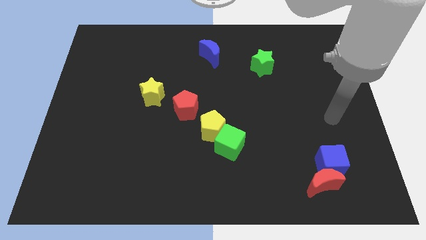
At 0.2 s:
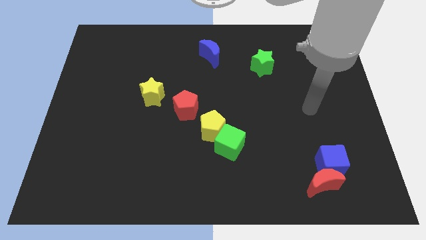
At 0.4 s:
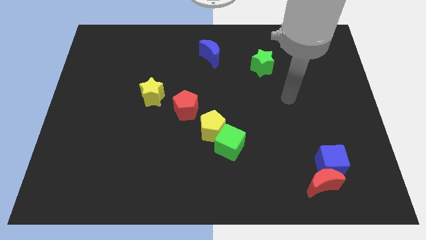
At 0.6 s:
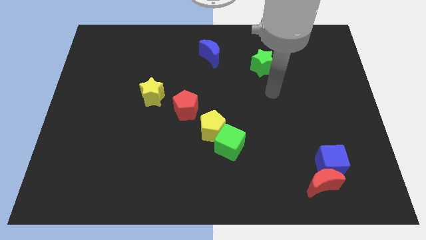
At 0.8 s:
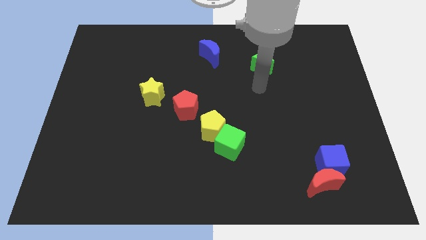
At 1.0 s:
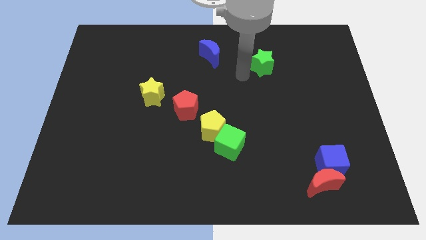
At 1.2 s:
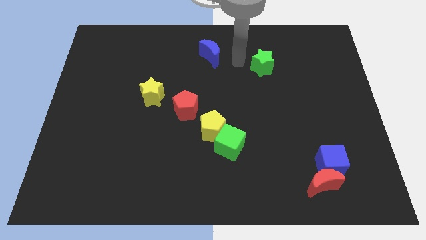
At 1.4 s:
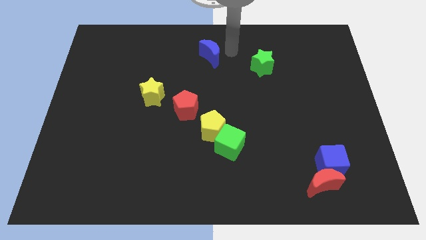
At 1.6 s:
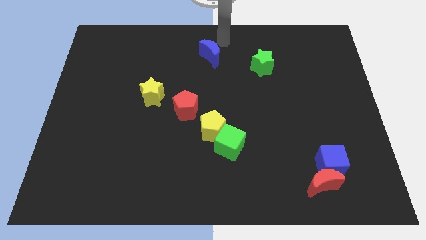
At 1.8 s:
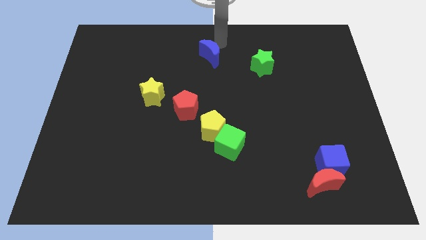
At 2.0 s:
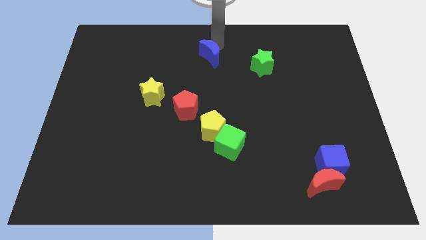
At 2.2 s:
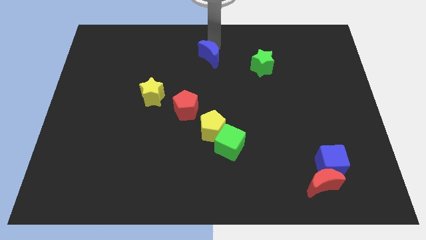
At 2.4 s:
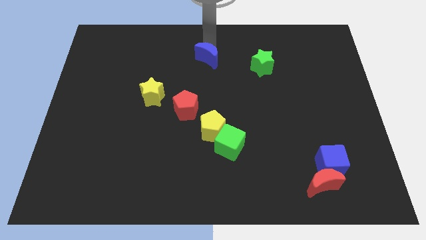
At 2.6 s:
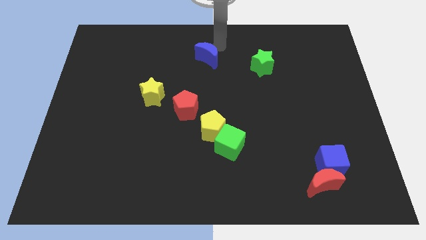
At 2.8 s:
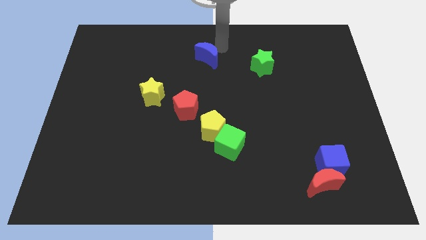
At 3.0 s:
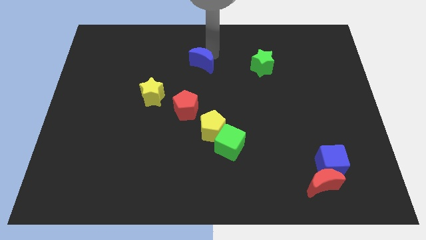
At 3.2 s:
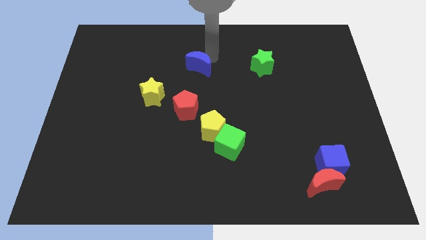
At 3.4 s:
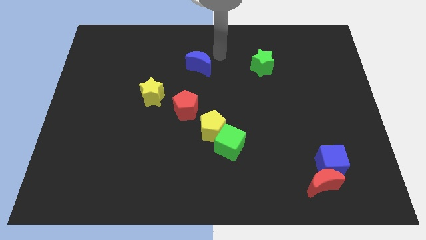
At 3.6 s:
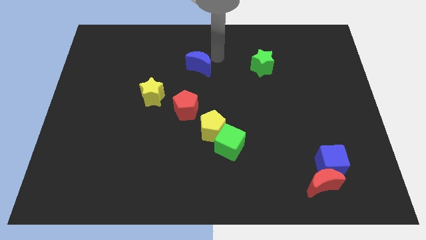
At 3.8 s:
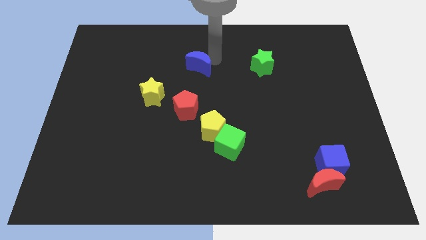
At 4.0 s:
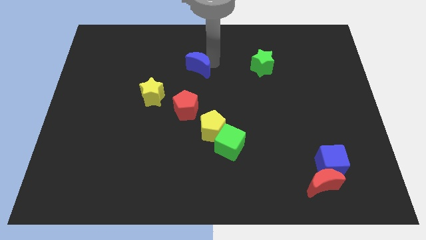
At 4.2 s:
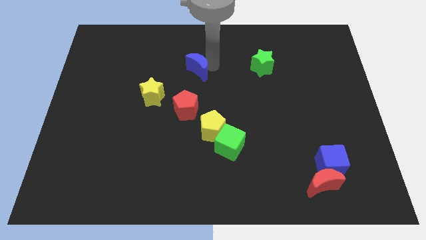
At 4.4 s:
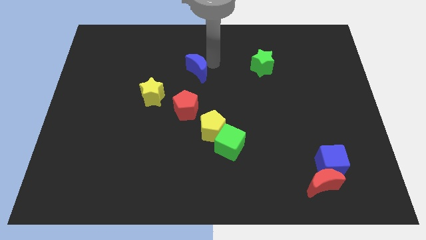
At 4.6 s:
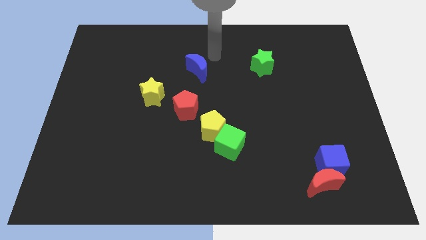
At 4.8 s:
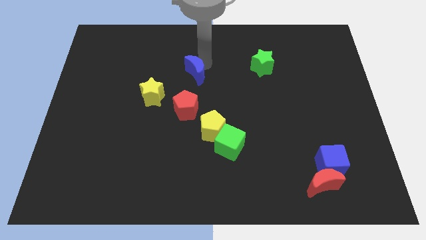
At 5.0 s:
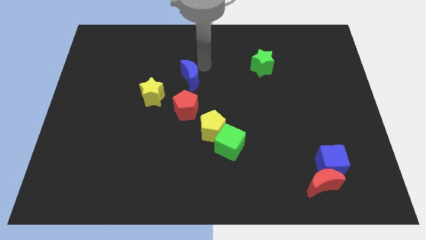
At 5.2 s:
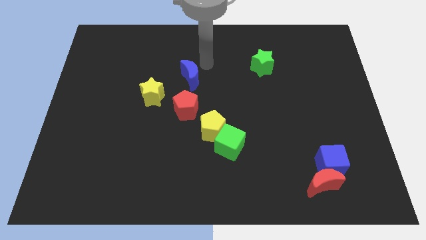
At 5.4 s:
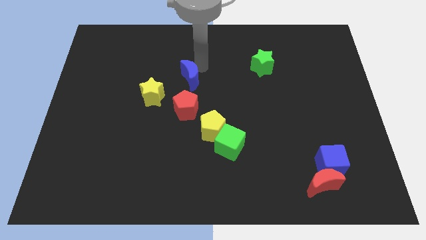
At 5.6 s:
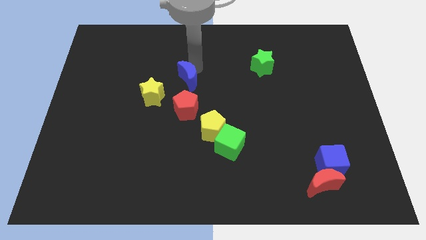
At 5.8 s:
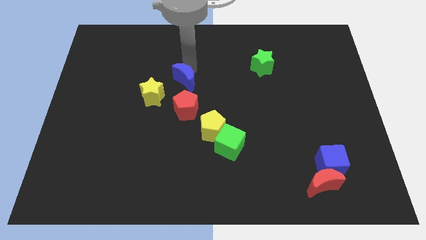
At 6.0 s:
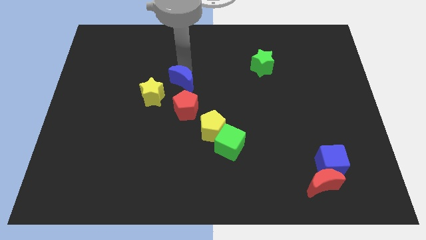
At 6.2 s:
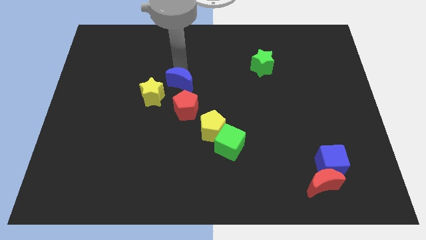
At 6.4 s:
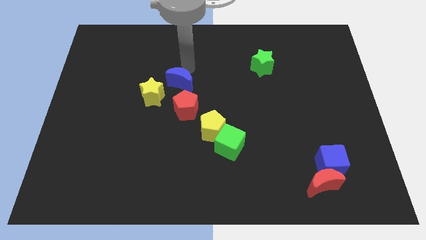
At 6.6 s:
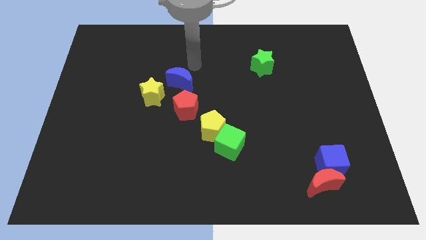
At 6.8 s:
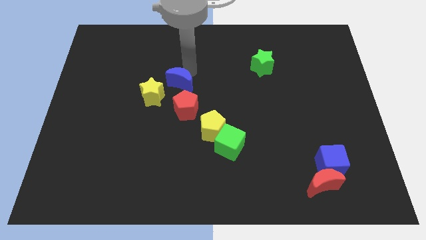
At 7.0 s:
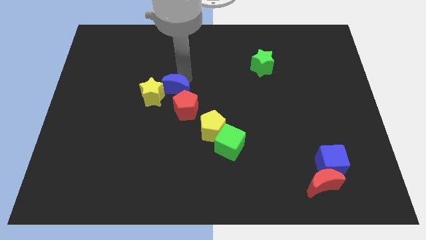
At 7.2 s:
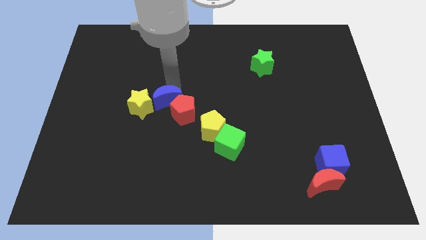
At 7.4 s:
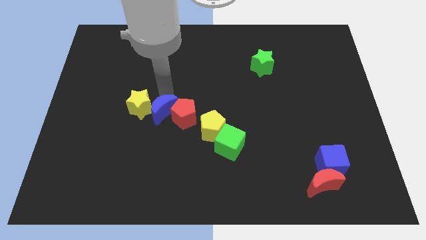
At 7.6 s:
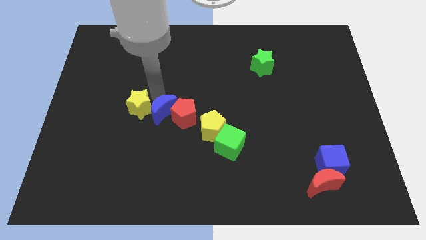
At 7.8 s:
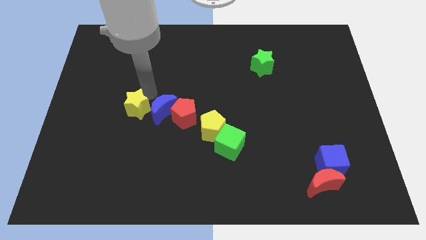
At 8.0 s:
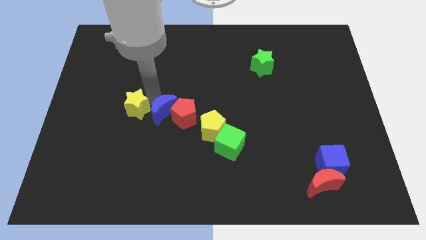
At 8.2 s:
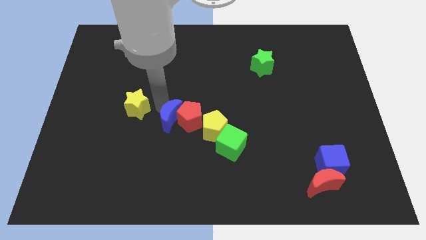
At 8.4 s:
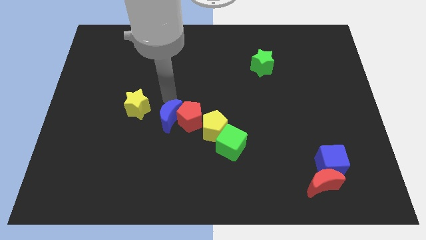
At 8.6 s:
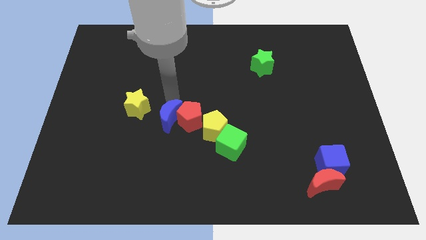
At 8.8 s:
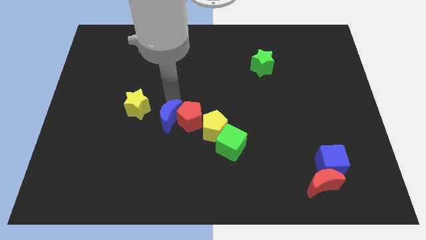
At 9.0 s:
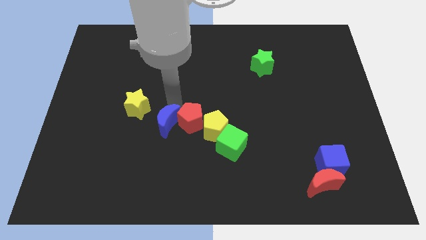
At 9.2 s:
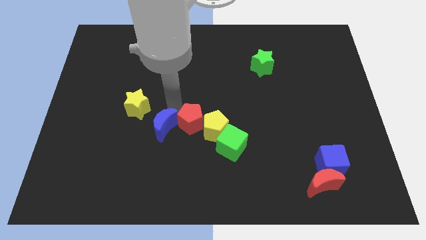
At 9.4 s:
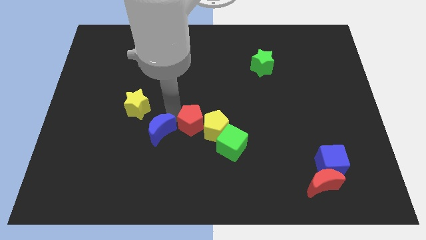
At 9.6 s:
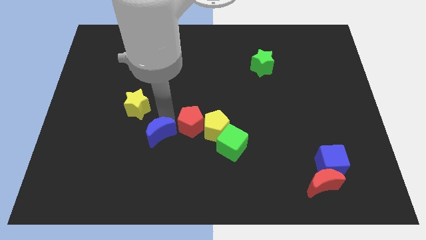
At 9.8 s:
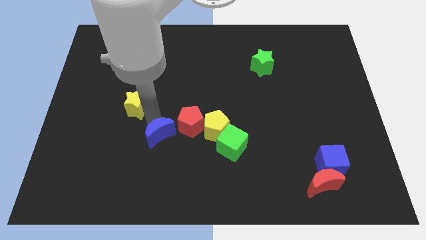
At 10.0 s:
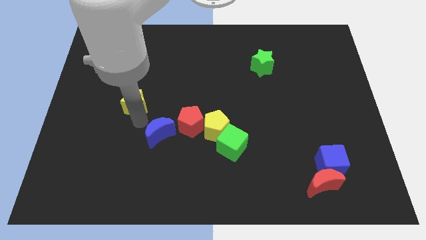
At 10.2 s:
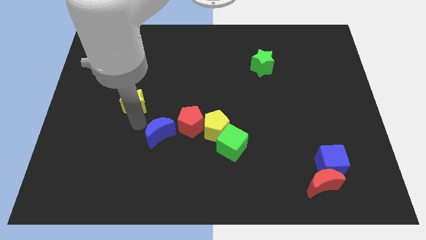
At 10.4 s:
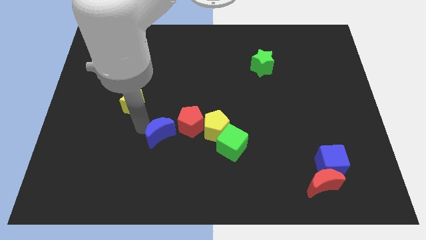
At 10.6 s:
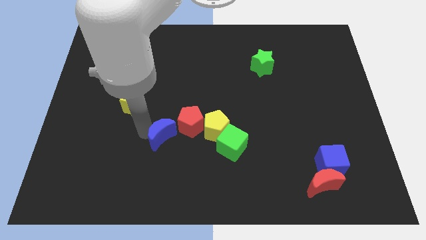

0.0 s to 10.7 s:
slide the blue moon just left of the green cube

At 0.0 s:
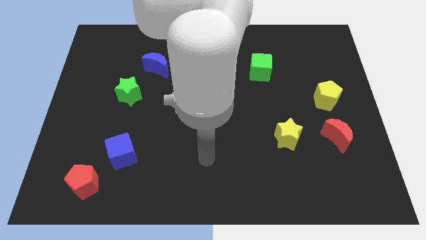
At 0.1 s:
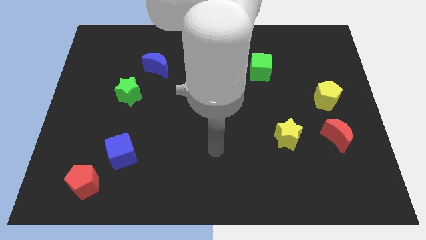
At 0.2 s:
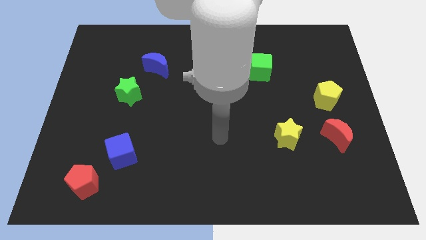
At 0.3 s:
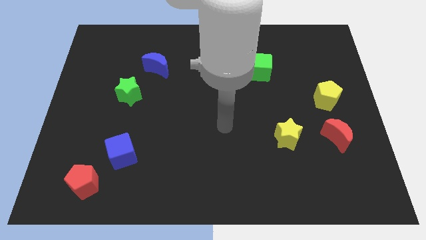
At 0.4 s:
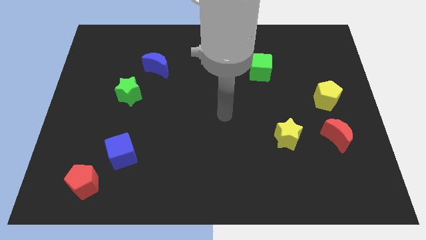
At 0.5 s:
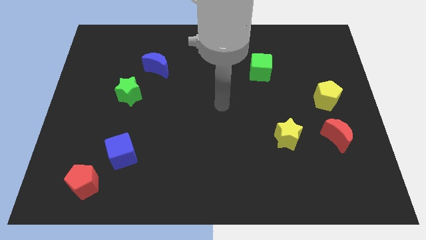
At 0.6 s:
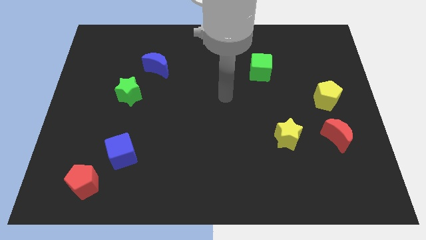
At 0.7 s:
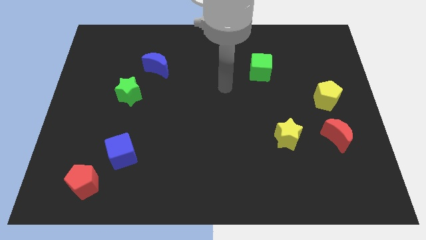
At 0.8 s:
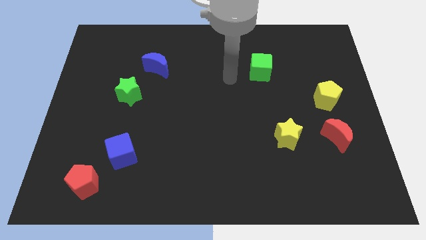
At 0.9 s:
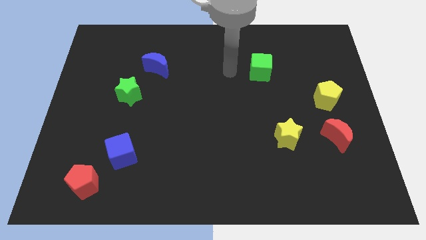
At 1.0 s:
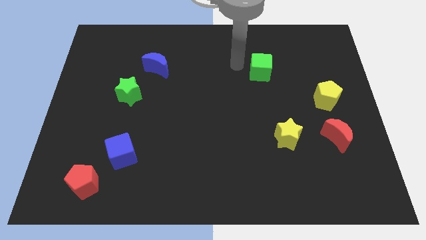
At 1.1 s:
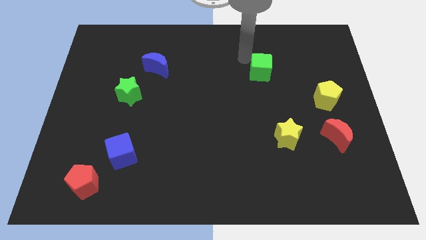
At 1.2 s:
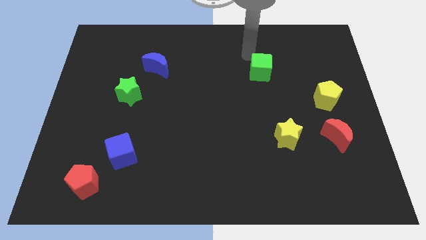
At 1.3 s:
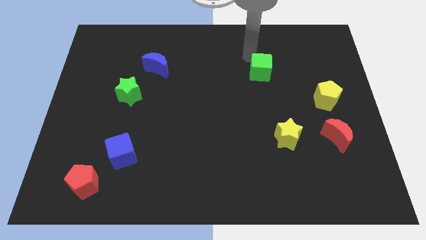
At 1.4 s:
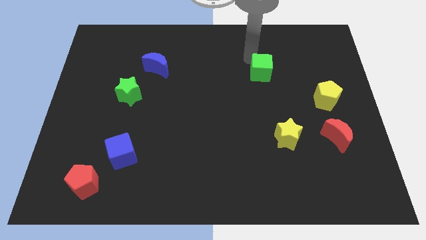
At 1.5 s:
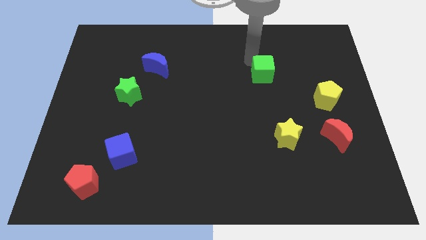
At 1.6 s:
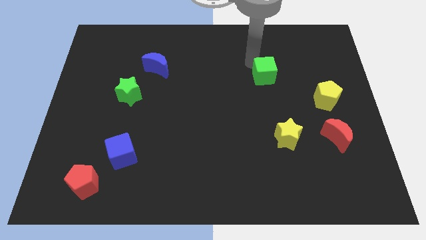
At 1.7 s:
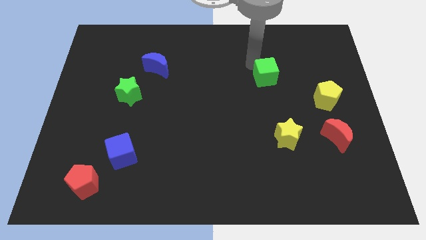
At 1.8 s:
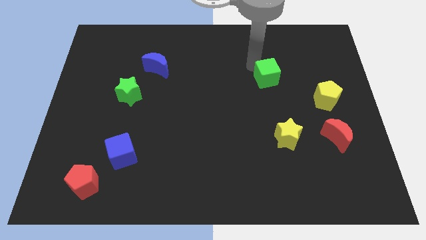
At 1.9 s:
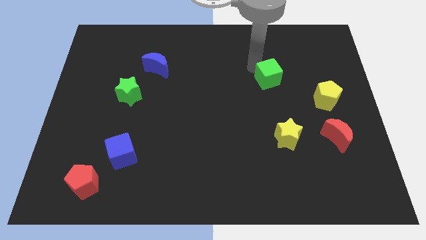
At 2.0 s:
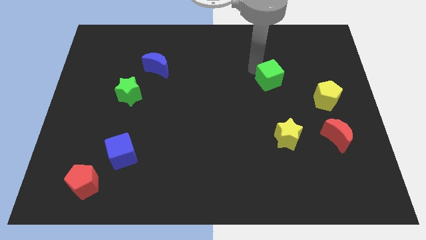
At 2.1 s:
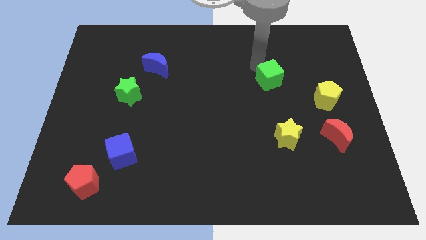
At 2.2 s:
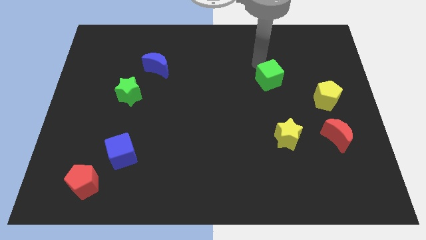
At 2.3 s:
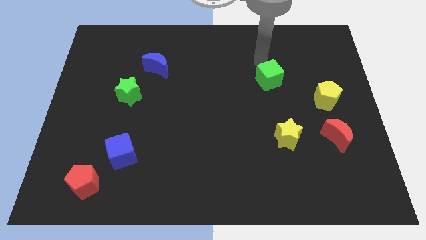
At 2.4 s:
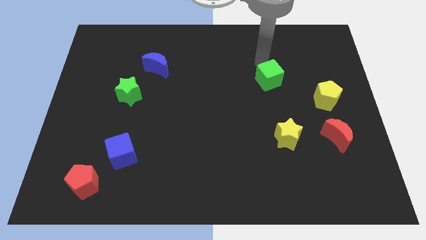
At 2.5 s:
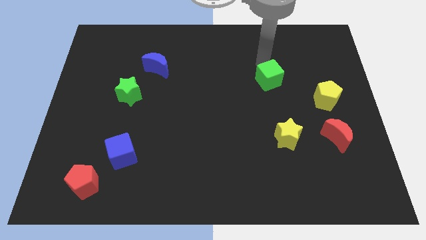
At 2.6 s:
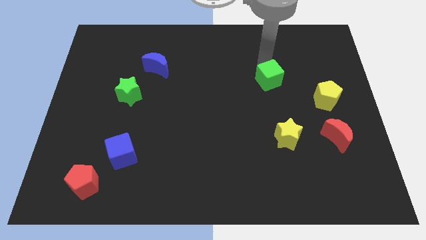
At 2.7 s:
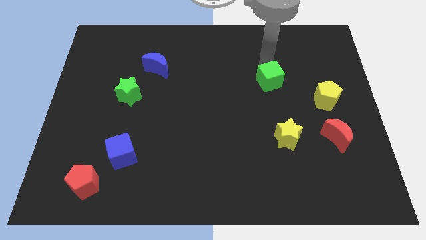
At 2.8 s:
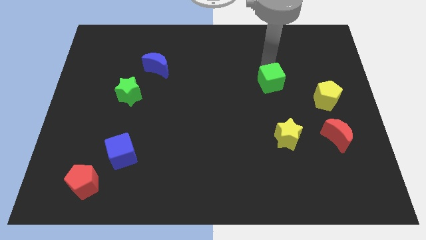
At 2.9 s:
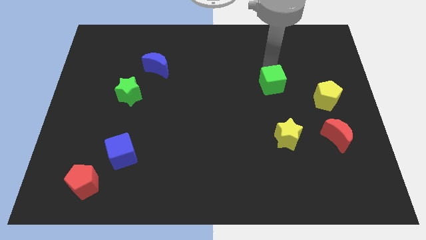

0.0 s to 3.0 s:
put the green cube to the top side of the yellow star
